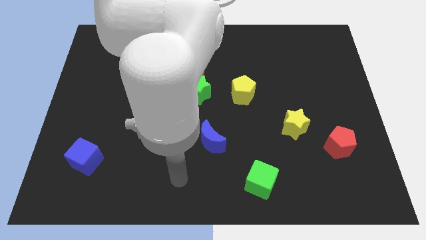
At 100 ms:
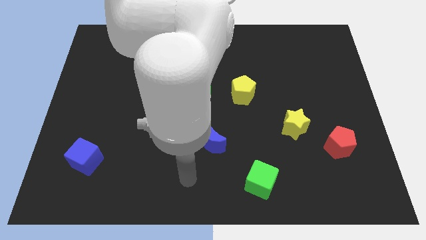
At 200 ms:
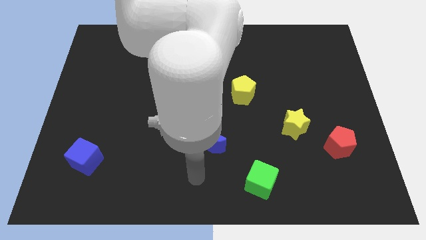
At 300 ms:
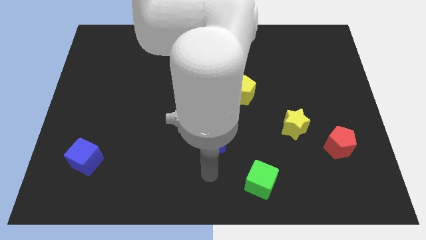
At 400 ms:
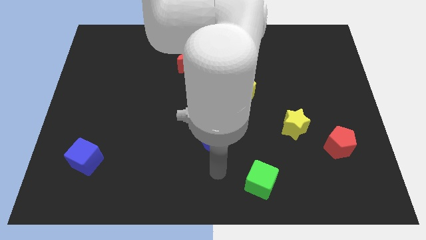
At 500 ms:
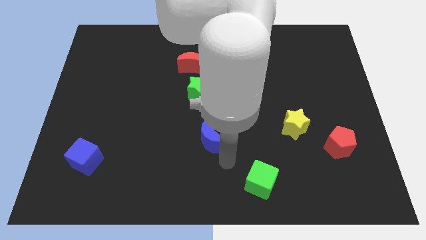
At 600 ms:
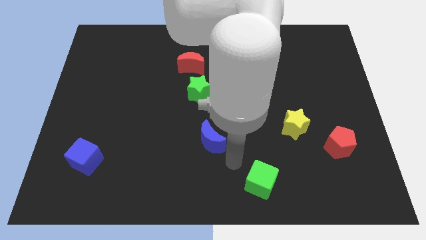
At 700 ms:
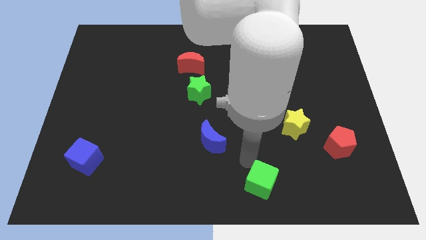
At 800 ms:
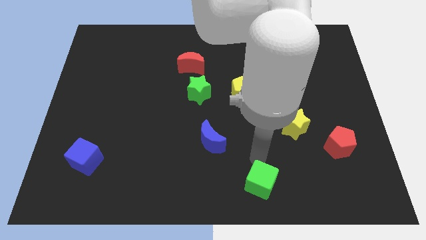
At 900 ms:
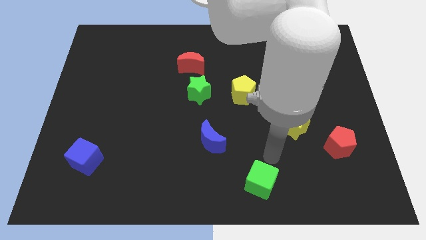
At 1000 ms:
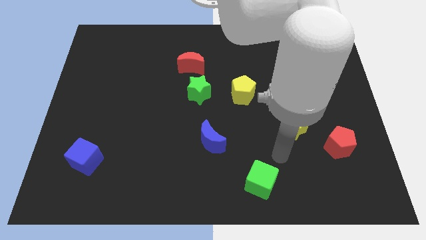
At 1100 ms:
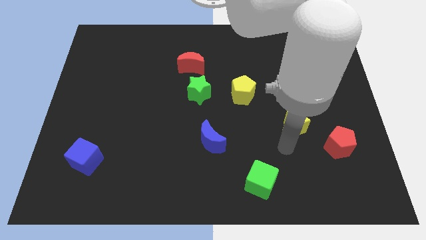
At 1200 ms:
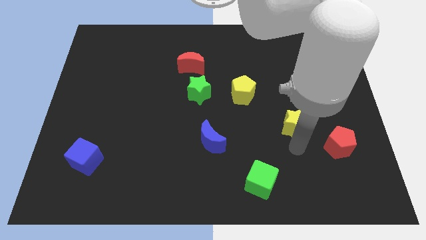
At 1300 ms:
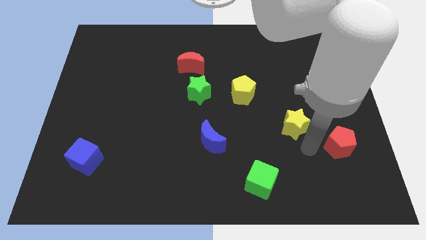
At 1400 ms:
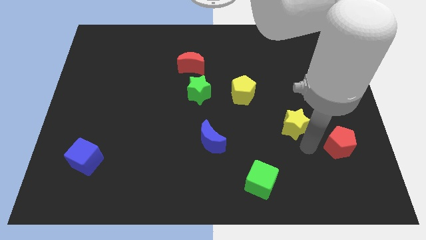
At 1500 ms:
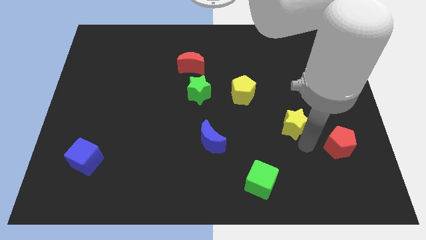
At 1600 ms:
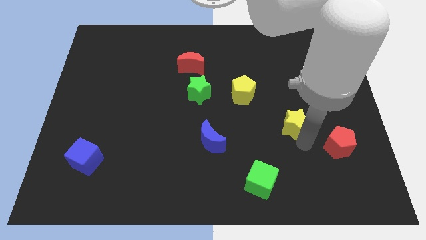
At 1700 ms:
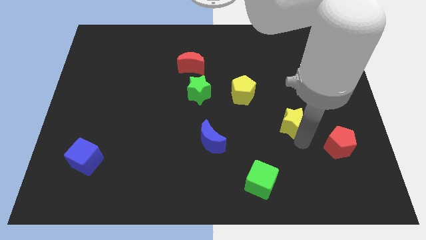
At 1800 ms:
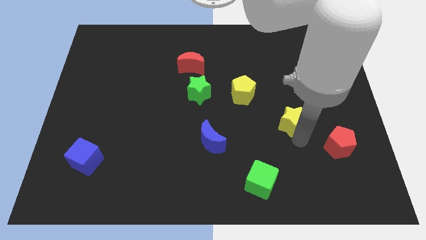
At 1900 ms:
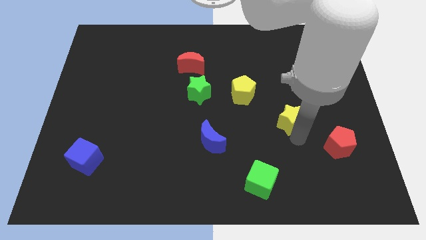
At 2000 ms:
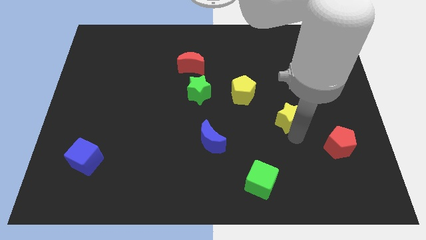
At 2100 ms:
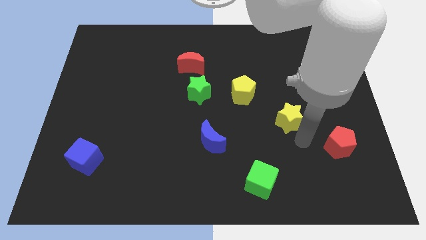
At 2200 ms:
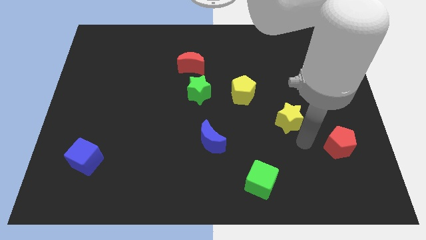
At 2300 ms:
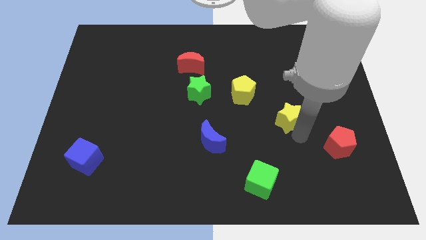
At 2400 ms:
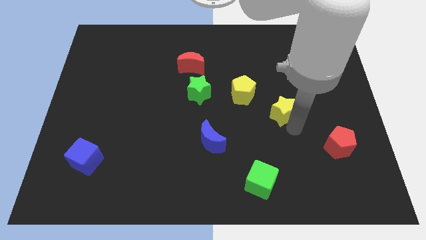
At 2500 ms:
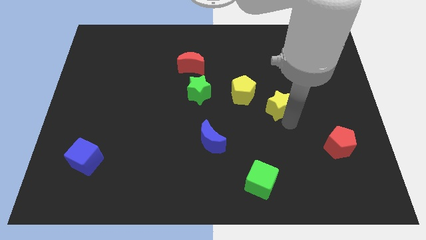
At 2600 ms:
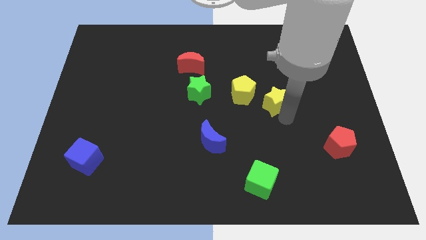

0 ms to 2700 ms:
slightly push the yellow star up and to the left diagonally

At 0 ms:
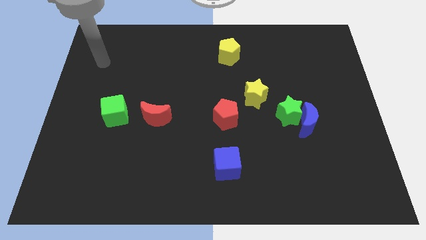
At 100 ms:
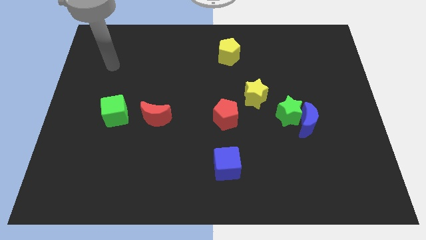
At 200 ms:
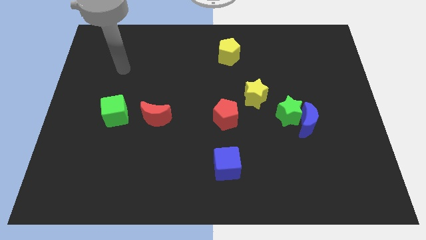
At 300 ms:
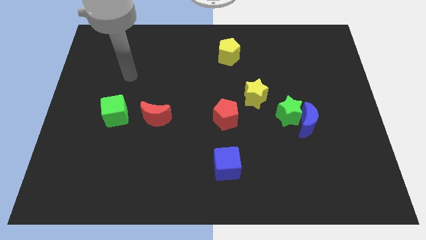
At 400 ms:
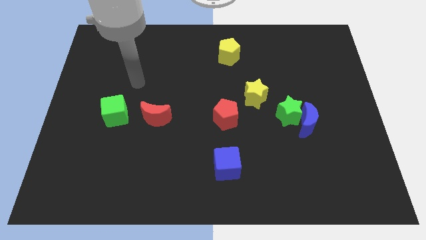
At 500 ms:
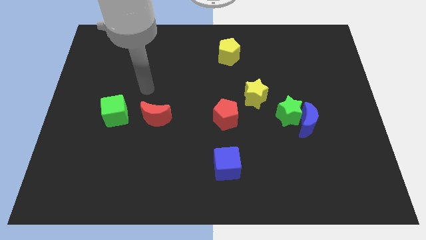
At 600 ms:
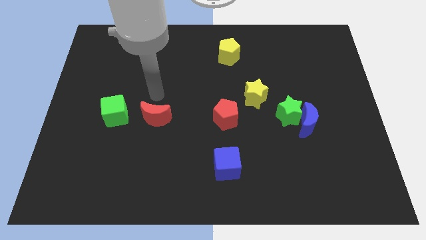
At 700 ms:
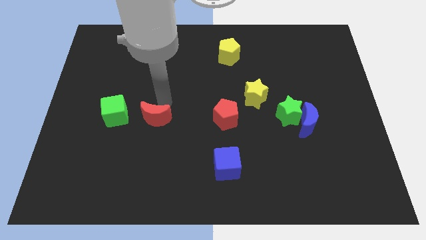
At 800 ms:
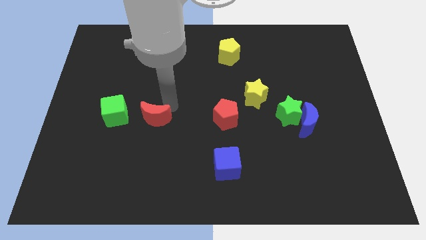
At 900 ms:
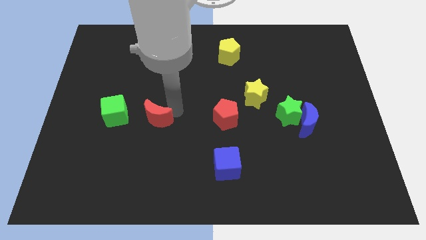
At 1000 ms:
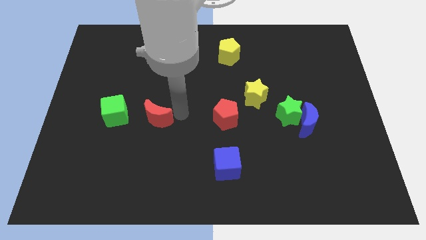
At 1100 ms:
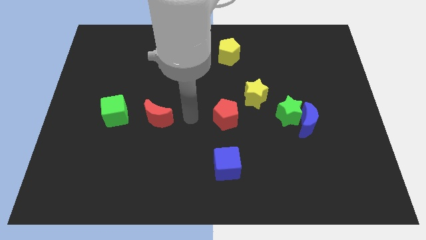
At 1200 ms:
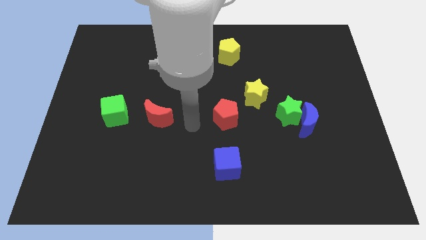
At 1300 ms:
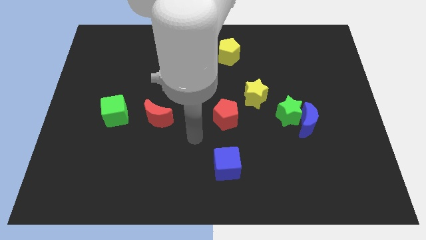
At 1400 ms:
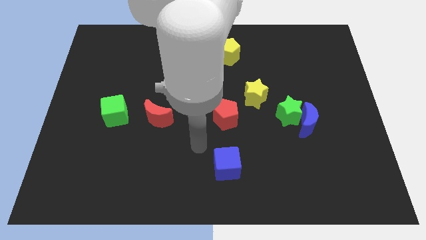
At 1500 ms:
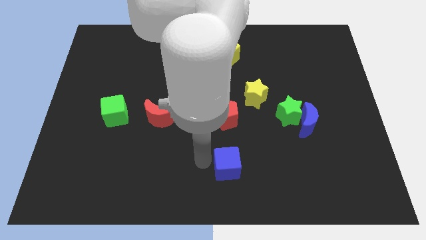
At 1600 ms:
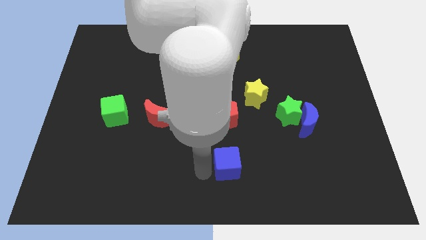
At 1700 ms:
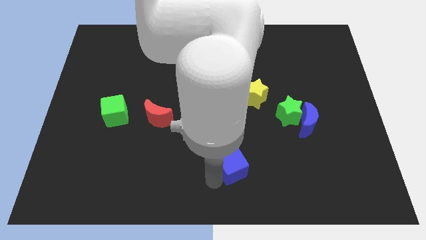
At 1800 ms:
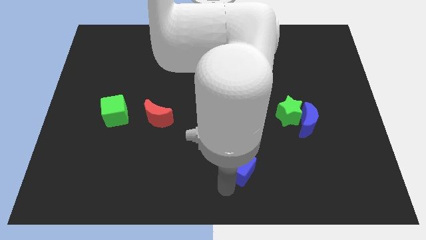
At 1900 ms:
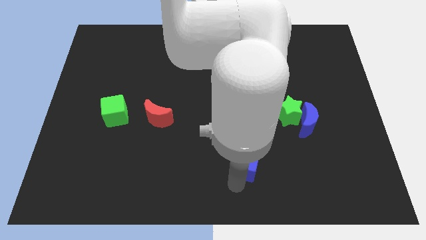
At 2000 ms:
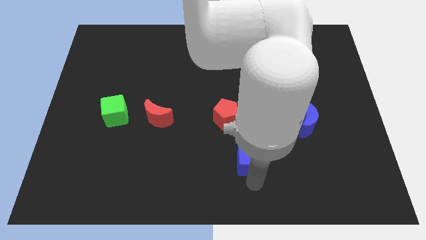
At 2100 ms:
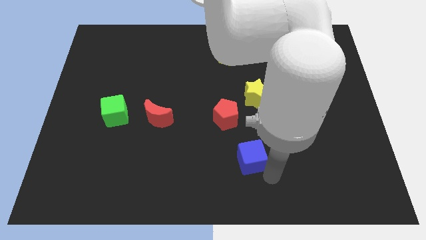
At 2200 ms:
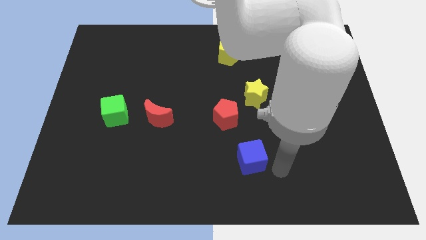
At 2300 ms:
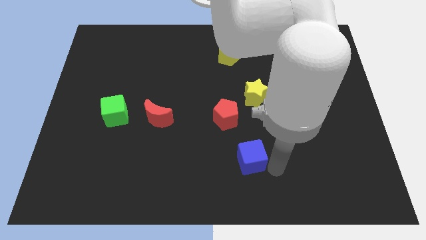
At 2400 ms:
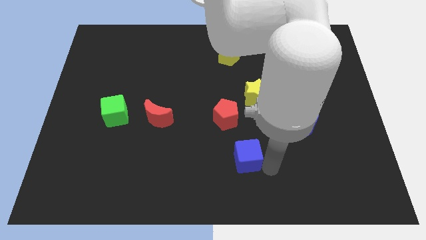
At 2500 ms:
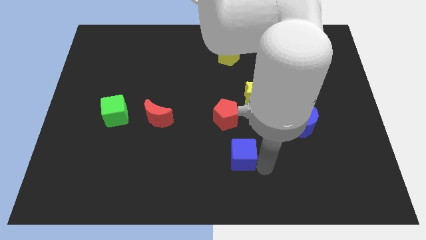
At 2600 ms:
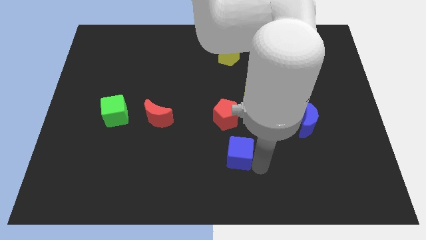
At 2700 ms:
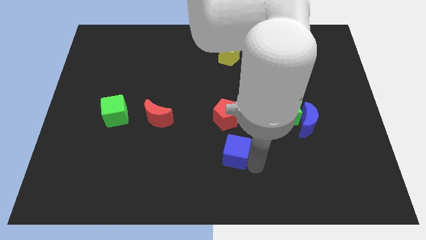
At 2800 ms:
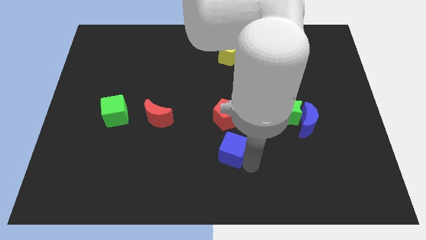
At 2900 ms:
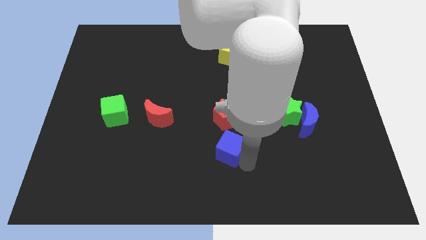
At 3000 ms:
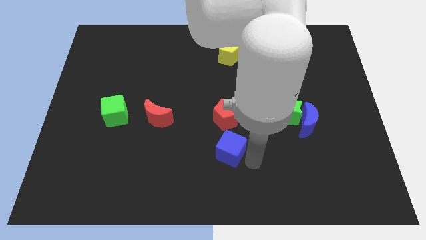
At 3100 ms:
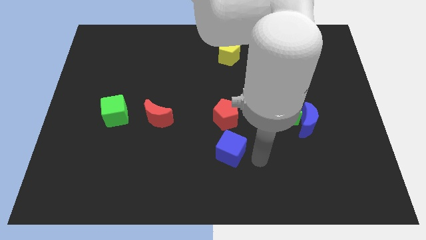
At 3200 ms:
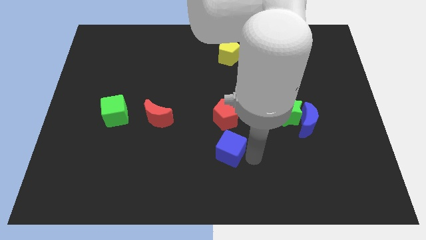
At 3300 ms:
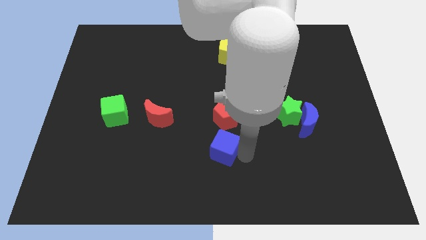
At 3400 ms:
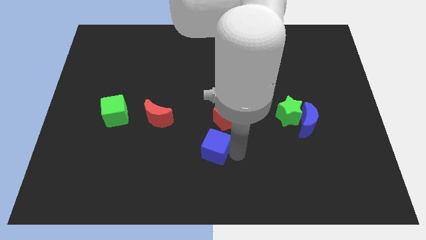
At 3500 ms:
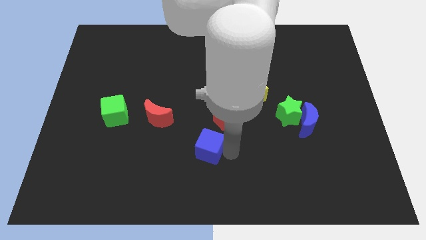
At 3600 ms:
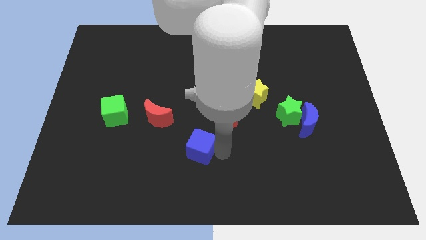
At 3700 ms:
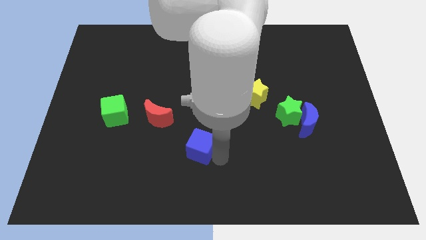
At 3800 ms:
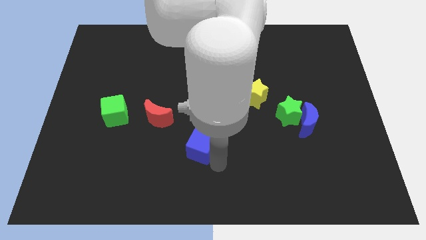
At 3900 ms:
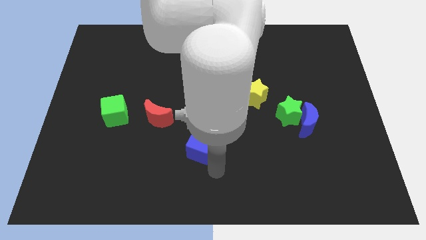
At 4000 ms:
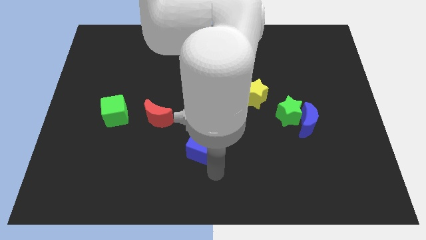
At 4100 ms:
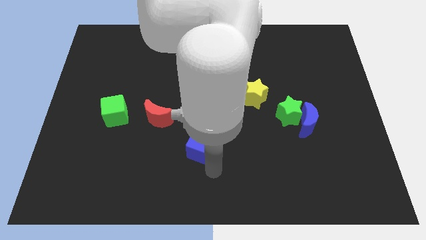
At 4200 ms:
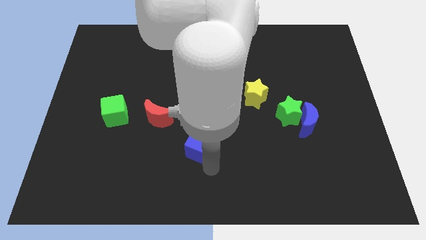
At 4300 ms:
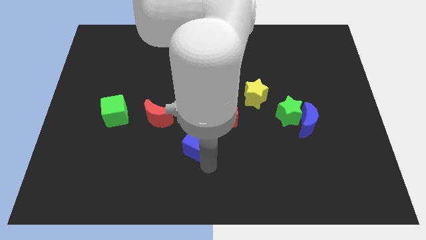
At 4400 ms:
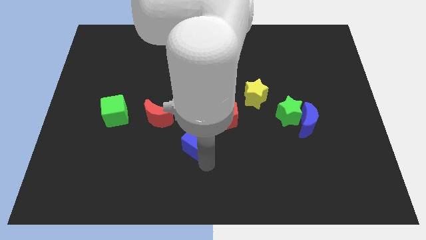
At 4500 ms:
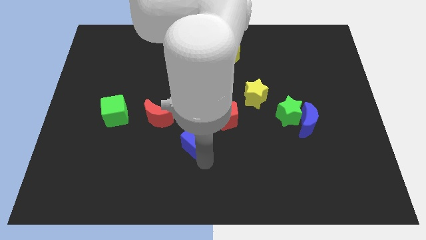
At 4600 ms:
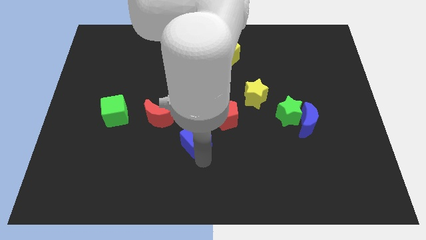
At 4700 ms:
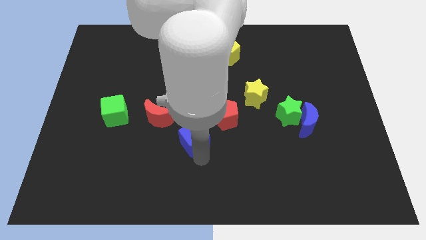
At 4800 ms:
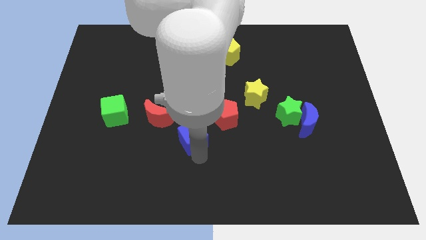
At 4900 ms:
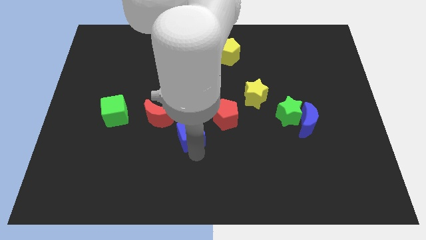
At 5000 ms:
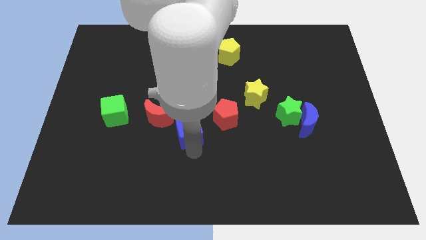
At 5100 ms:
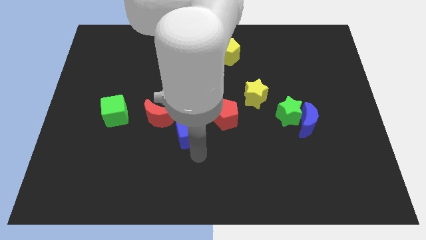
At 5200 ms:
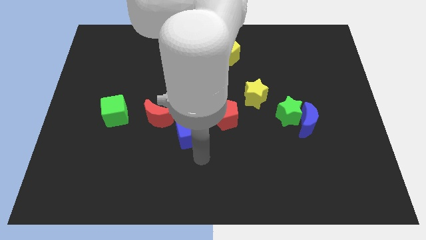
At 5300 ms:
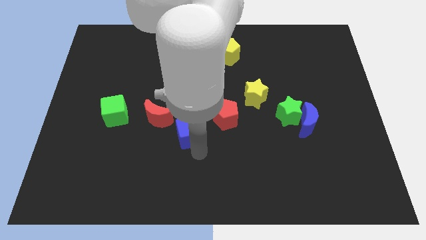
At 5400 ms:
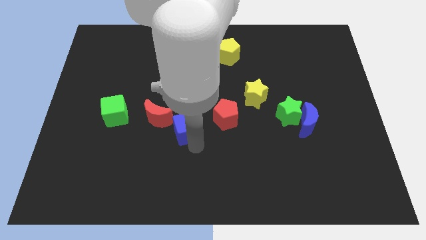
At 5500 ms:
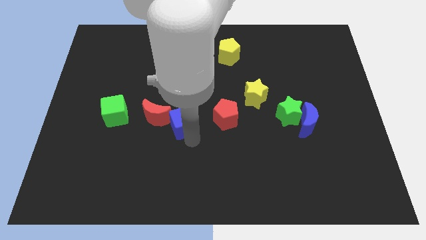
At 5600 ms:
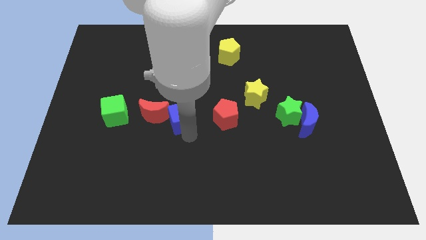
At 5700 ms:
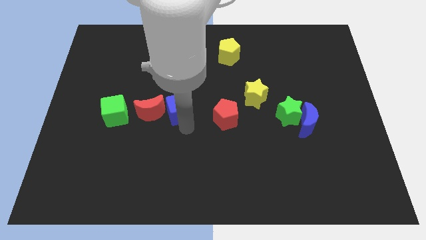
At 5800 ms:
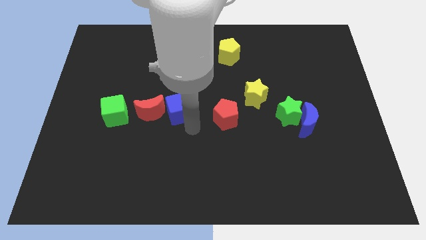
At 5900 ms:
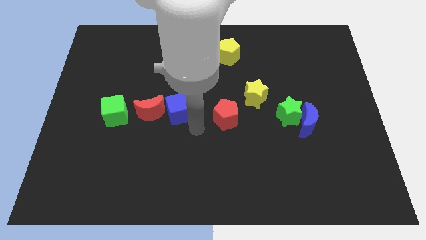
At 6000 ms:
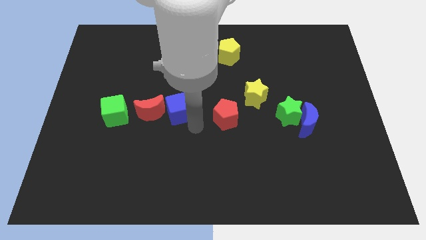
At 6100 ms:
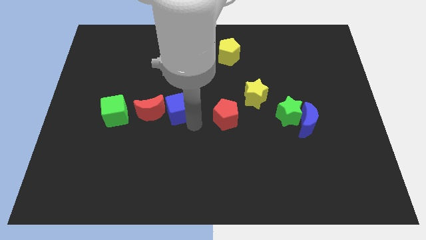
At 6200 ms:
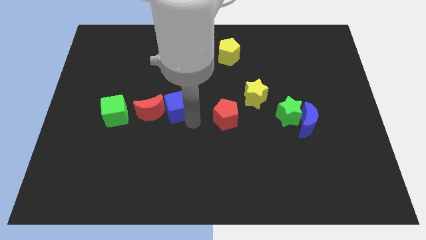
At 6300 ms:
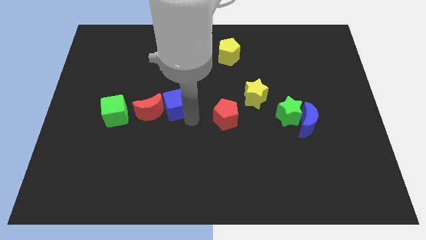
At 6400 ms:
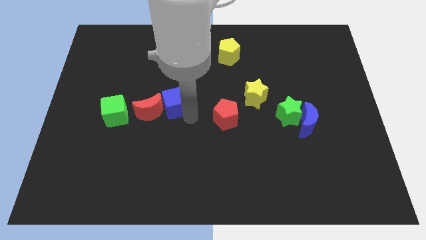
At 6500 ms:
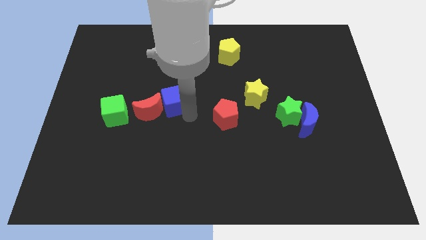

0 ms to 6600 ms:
move the blue cube diagonally upwards and left
